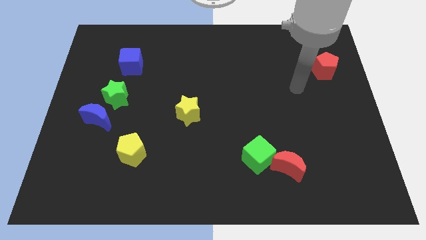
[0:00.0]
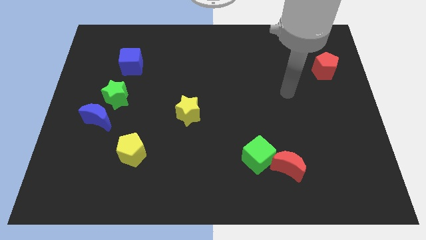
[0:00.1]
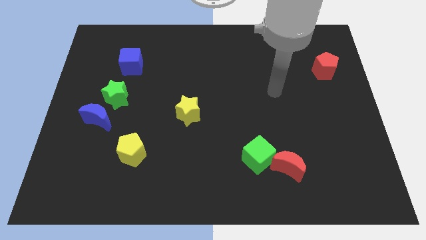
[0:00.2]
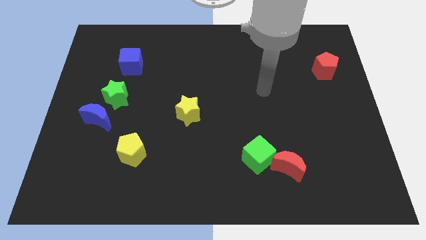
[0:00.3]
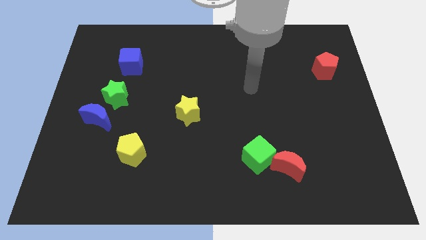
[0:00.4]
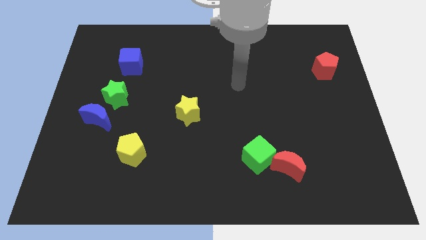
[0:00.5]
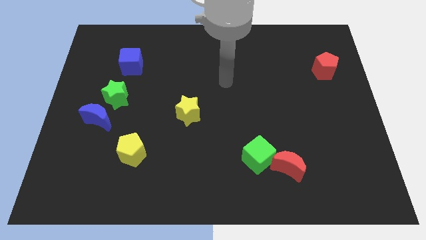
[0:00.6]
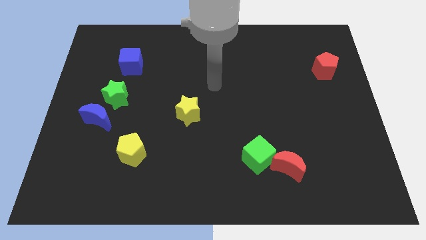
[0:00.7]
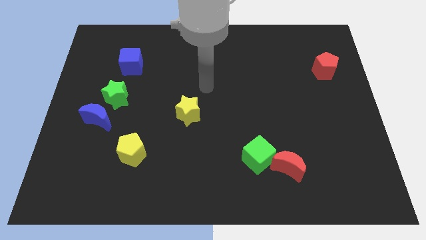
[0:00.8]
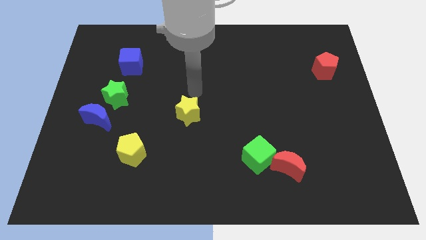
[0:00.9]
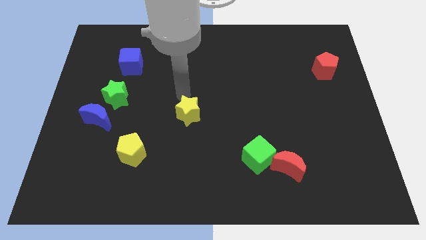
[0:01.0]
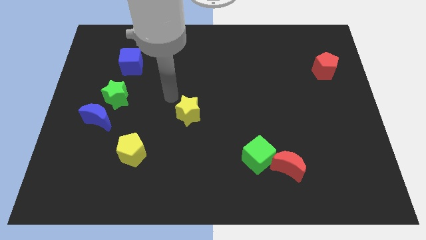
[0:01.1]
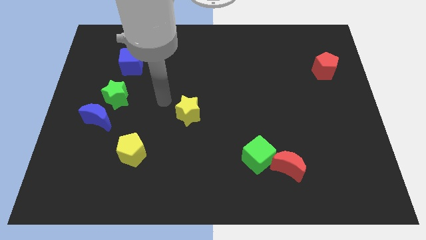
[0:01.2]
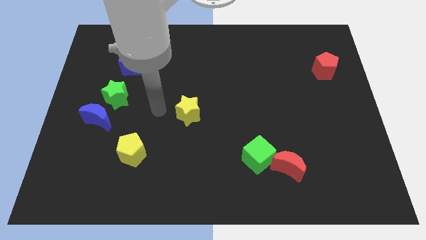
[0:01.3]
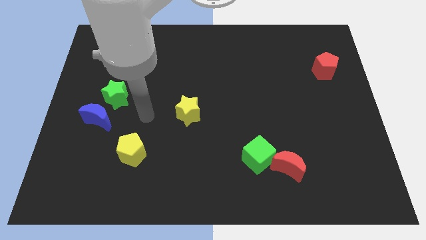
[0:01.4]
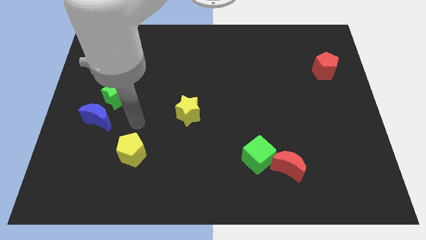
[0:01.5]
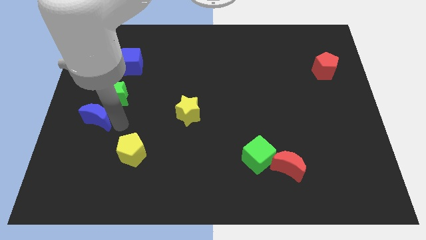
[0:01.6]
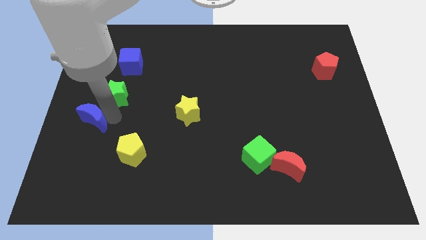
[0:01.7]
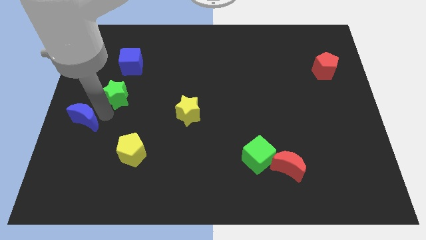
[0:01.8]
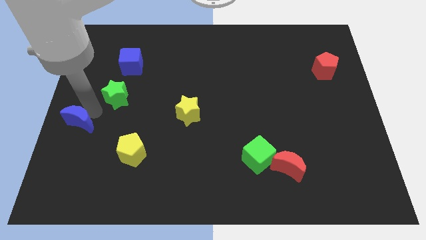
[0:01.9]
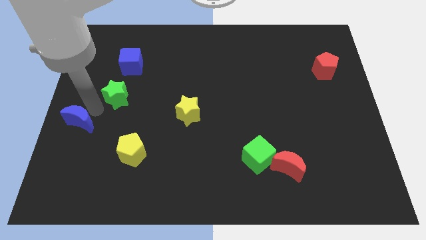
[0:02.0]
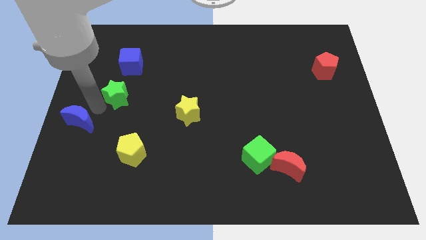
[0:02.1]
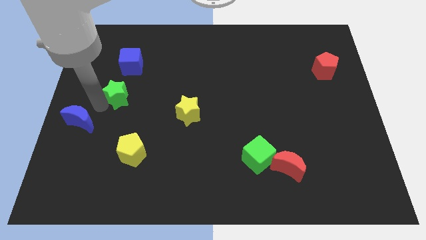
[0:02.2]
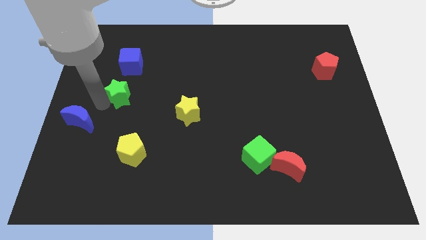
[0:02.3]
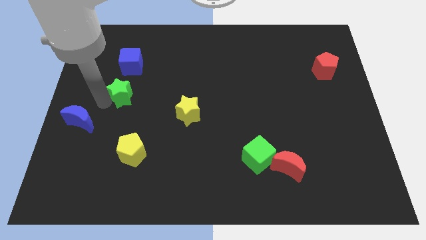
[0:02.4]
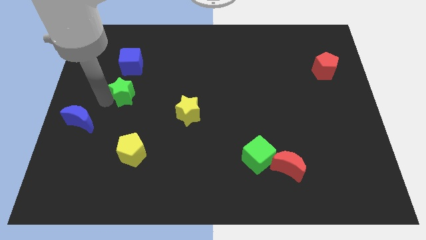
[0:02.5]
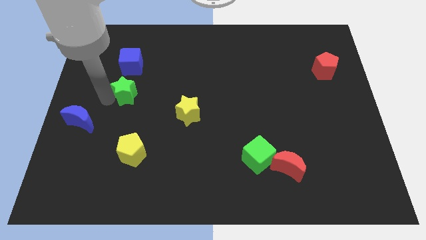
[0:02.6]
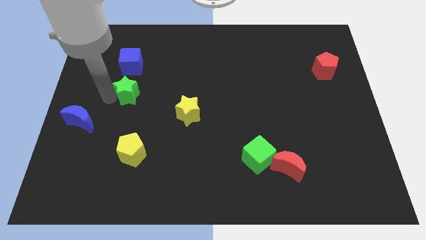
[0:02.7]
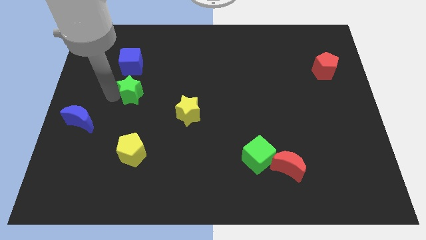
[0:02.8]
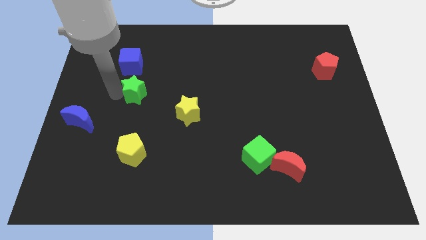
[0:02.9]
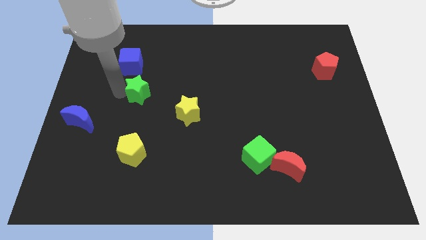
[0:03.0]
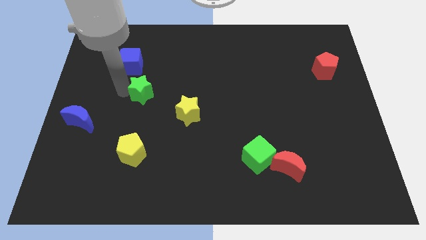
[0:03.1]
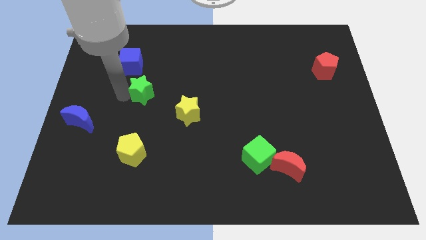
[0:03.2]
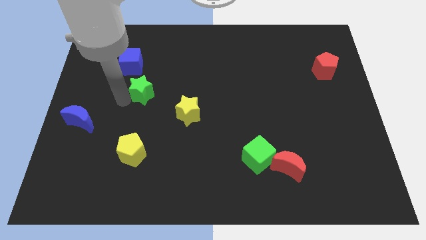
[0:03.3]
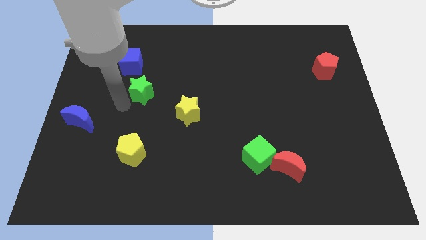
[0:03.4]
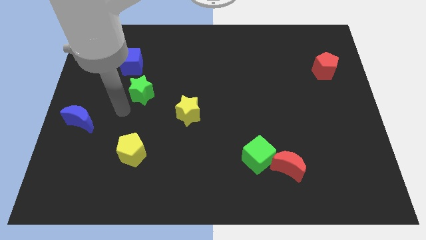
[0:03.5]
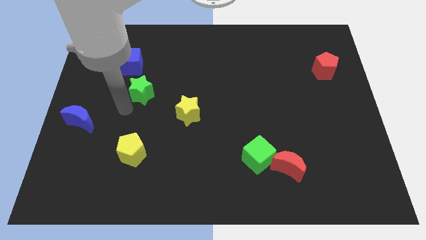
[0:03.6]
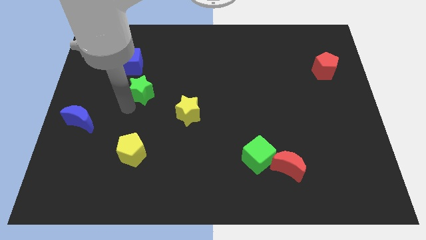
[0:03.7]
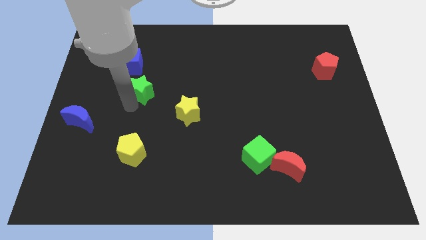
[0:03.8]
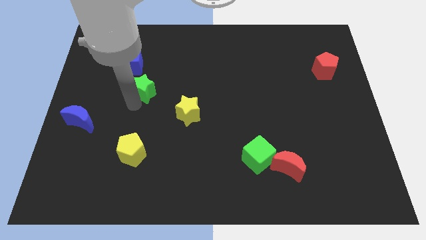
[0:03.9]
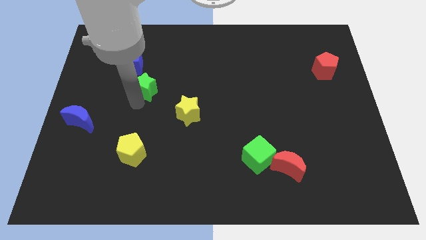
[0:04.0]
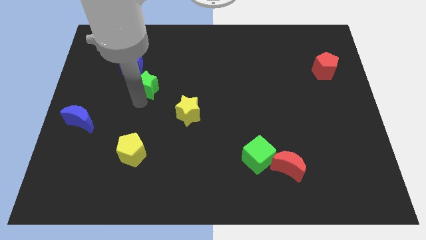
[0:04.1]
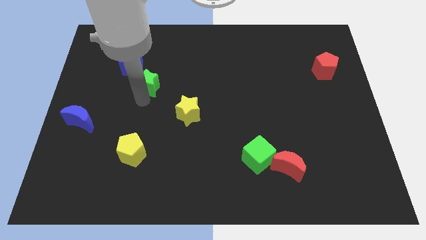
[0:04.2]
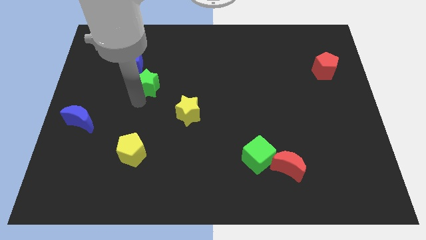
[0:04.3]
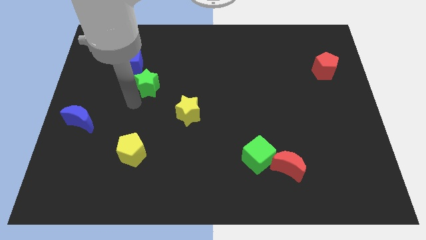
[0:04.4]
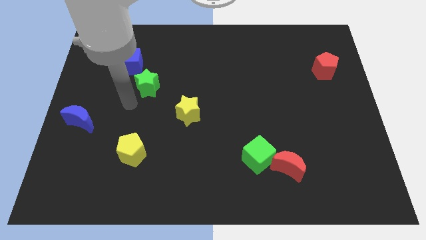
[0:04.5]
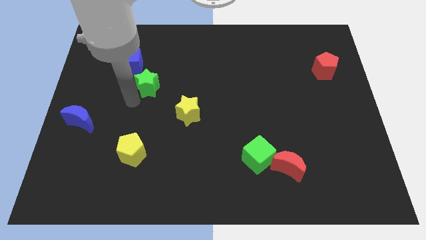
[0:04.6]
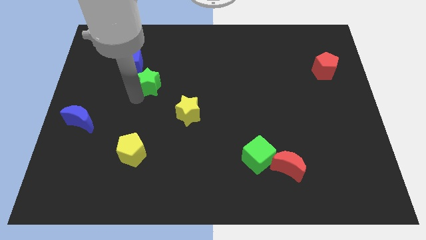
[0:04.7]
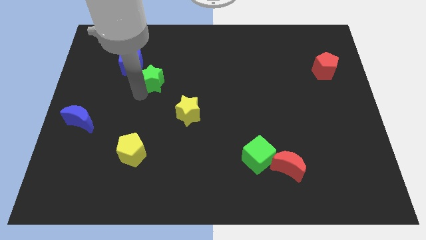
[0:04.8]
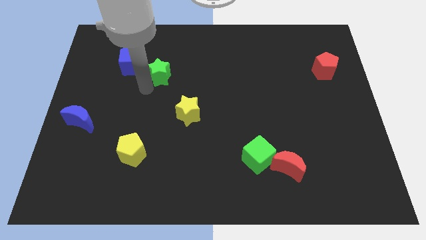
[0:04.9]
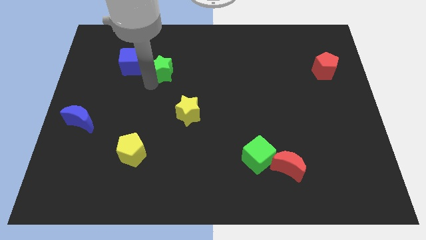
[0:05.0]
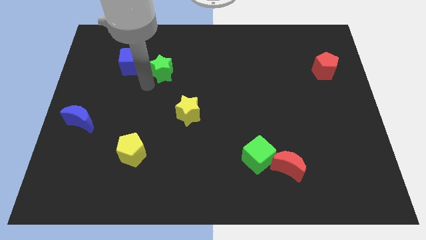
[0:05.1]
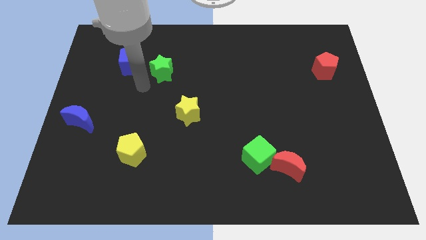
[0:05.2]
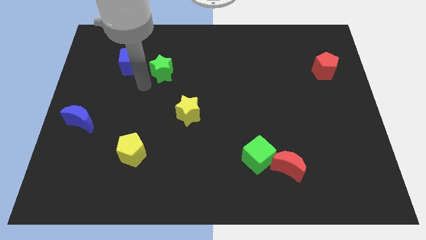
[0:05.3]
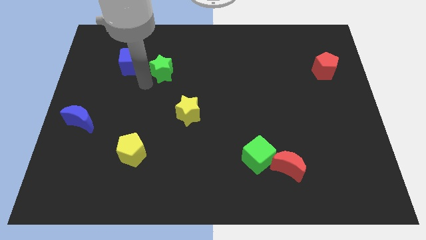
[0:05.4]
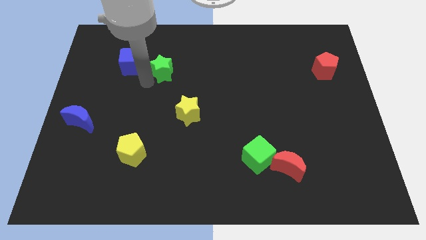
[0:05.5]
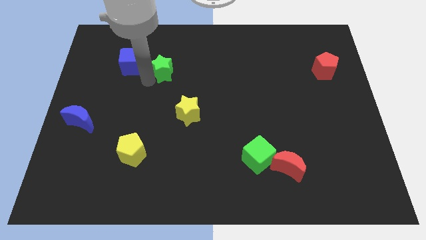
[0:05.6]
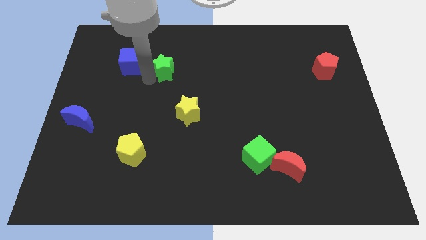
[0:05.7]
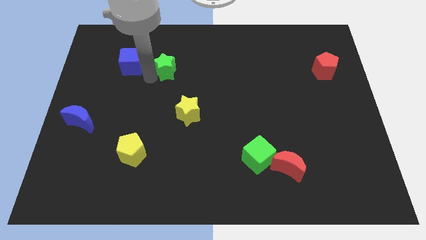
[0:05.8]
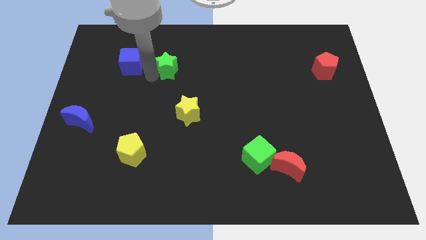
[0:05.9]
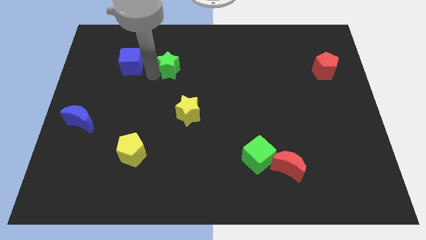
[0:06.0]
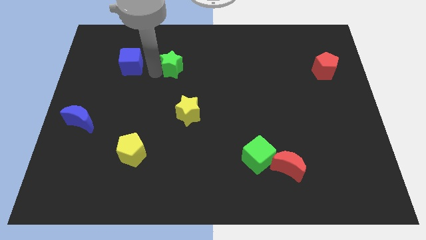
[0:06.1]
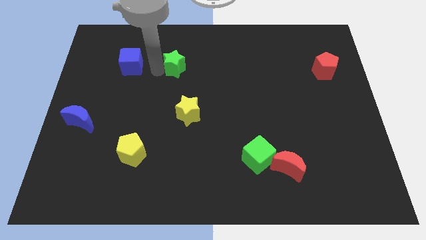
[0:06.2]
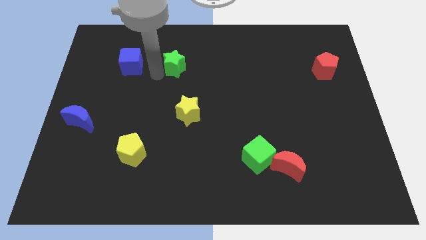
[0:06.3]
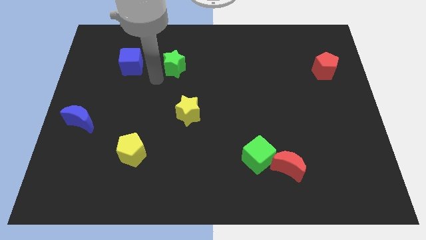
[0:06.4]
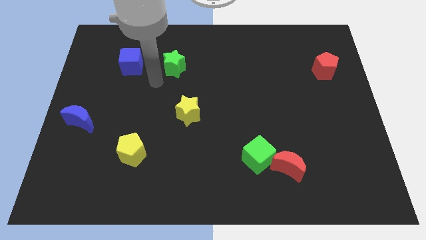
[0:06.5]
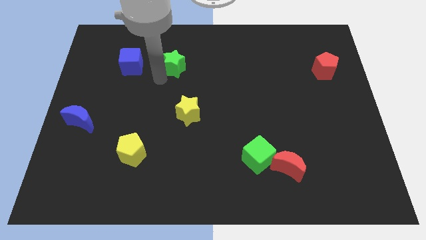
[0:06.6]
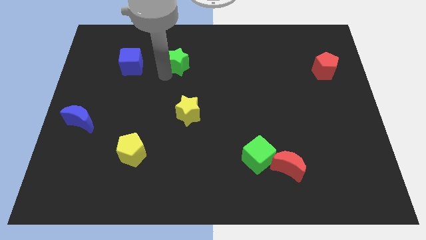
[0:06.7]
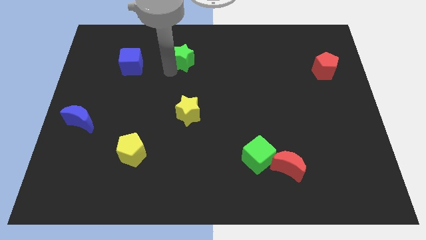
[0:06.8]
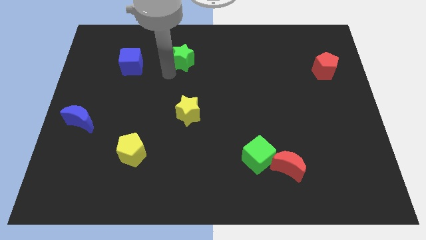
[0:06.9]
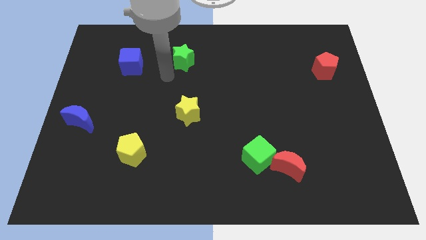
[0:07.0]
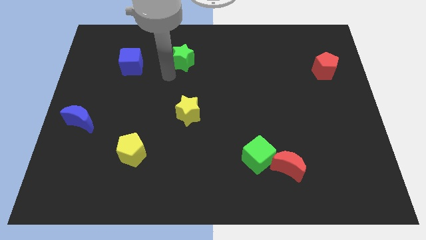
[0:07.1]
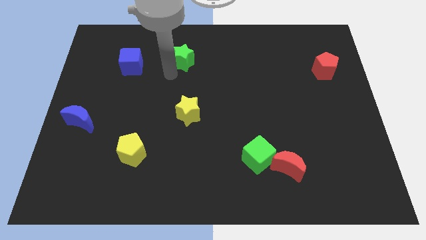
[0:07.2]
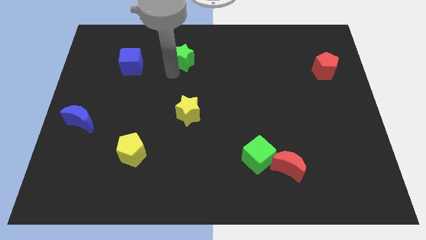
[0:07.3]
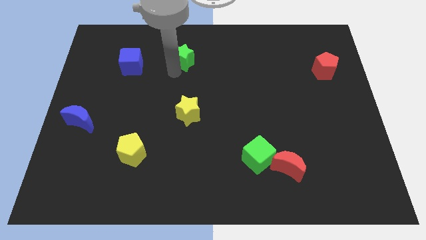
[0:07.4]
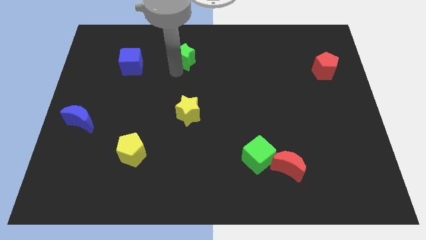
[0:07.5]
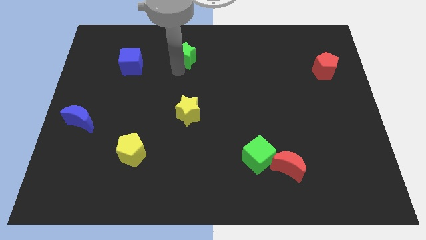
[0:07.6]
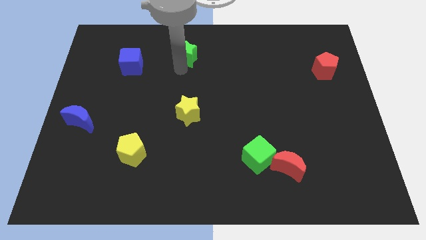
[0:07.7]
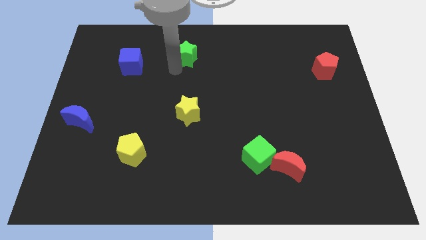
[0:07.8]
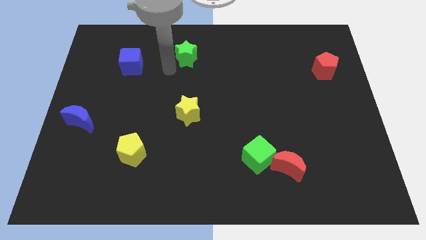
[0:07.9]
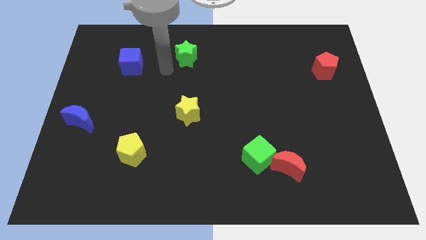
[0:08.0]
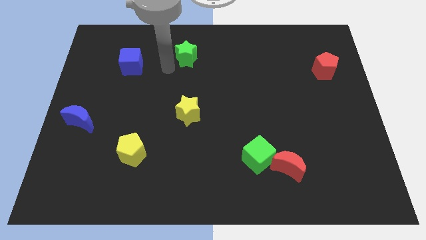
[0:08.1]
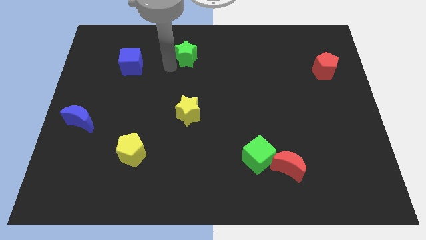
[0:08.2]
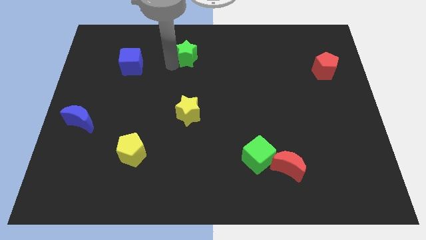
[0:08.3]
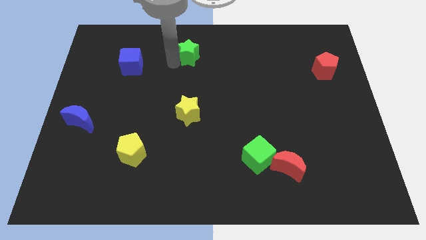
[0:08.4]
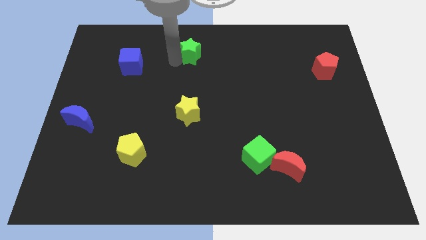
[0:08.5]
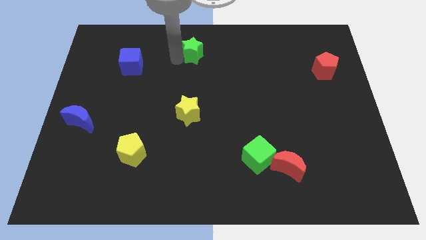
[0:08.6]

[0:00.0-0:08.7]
move the green star to the top
